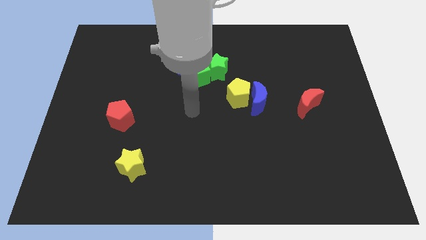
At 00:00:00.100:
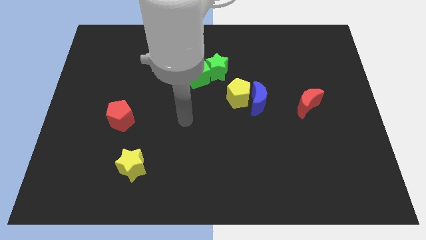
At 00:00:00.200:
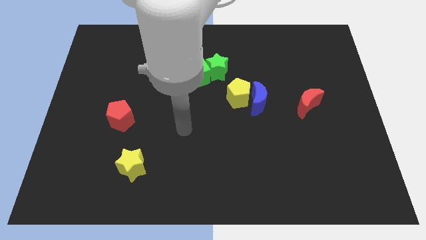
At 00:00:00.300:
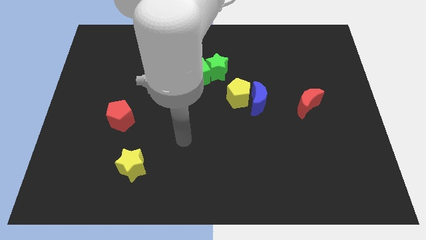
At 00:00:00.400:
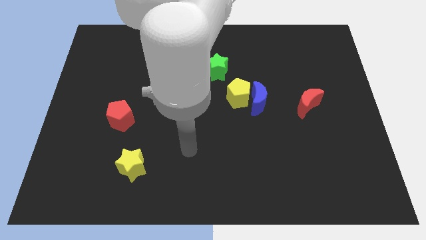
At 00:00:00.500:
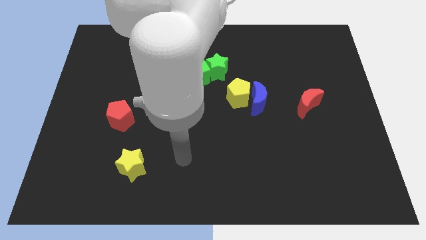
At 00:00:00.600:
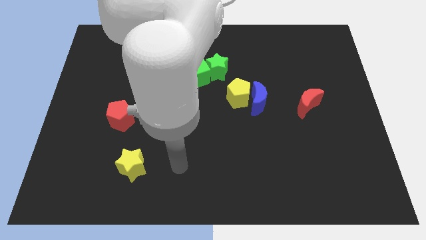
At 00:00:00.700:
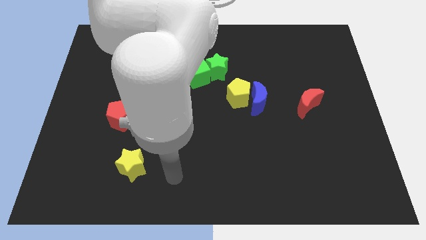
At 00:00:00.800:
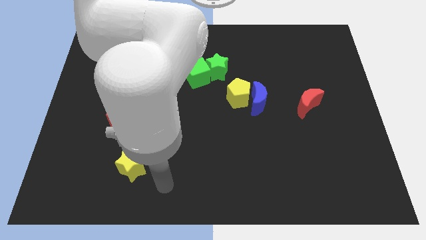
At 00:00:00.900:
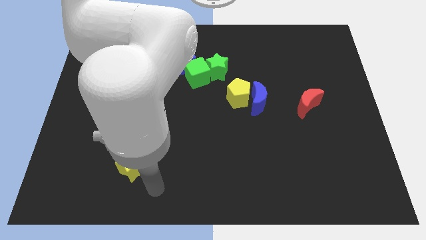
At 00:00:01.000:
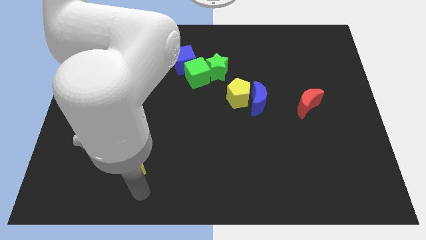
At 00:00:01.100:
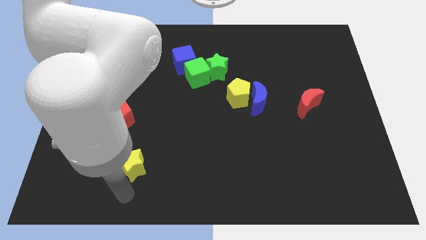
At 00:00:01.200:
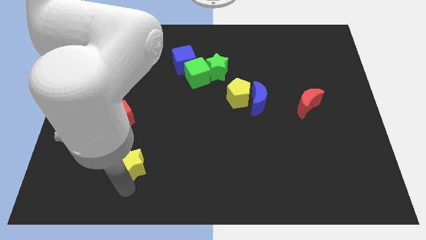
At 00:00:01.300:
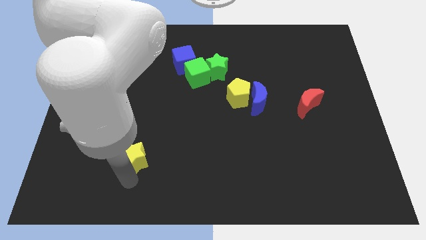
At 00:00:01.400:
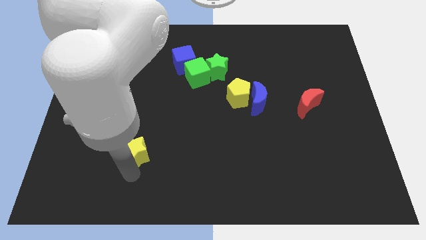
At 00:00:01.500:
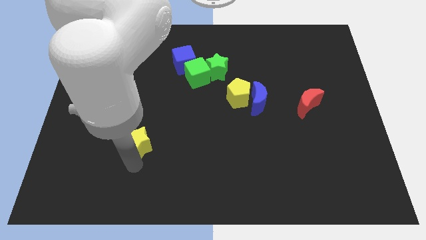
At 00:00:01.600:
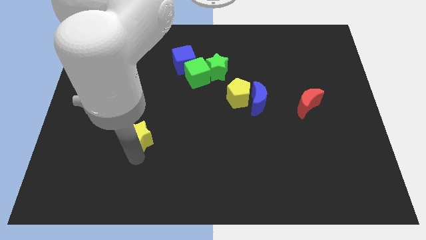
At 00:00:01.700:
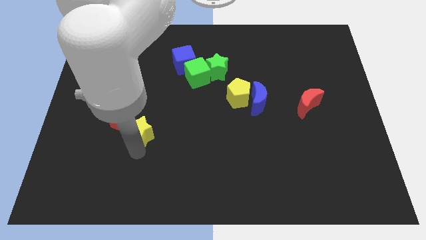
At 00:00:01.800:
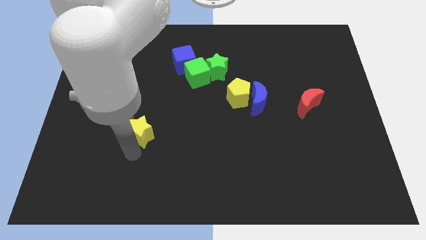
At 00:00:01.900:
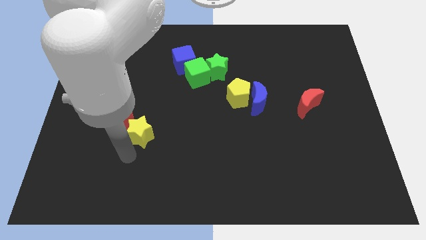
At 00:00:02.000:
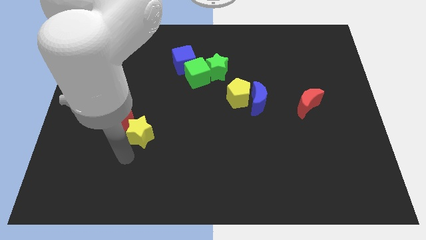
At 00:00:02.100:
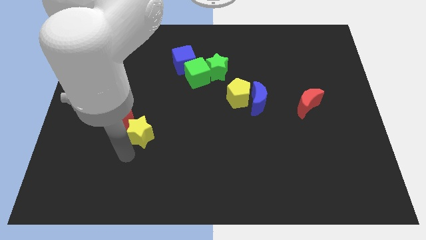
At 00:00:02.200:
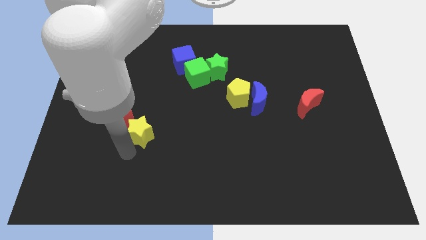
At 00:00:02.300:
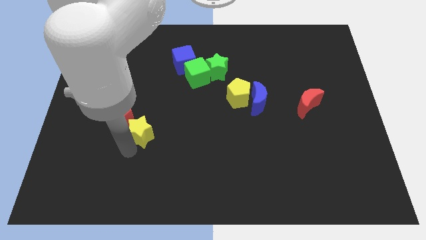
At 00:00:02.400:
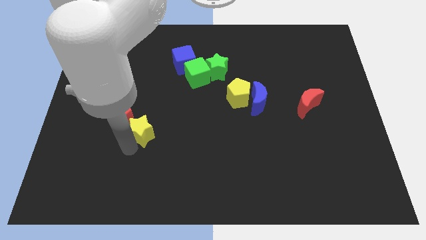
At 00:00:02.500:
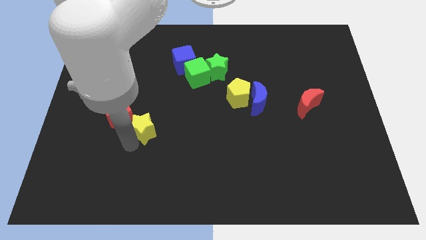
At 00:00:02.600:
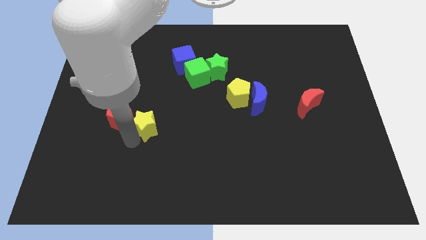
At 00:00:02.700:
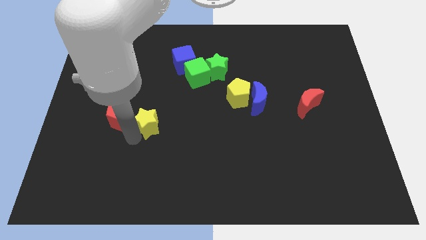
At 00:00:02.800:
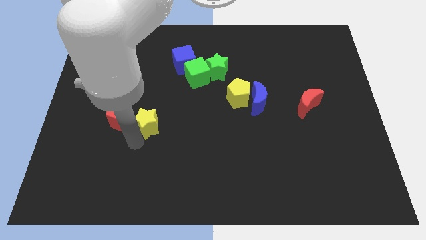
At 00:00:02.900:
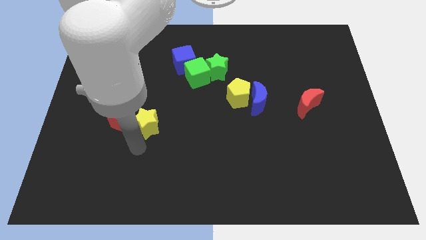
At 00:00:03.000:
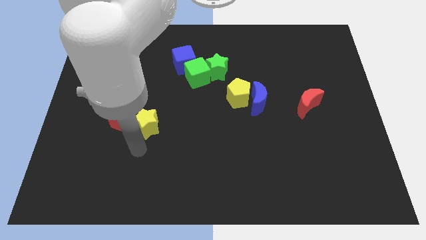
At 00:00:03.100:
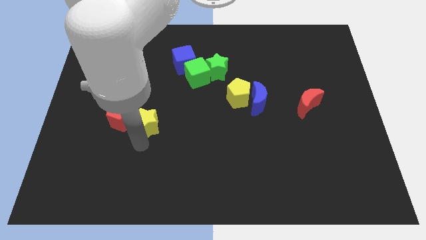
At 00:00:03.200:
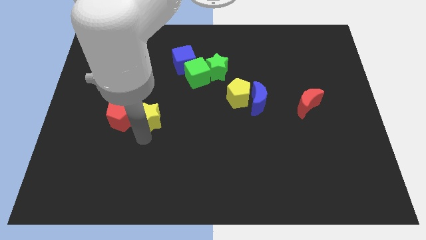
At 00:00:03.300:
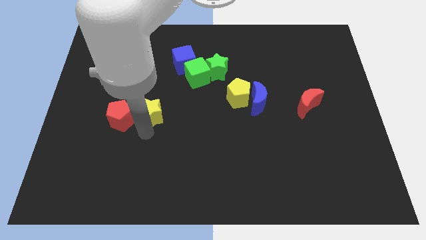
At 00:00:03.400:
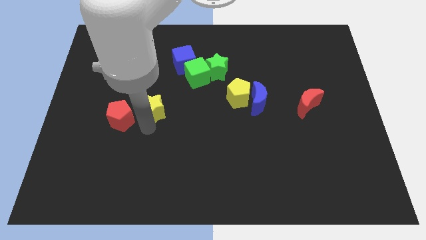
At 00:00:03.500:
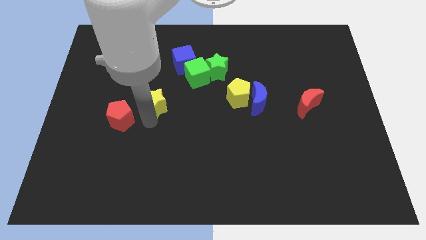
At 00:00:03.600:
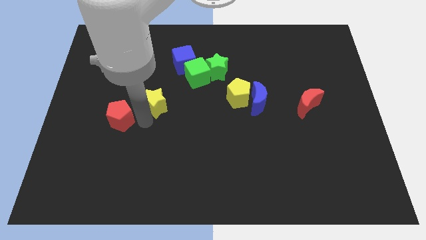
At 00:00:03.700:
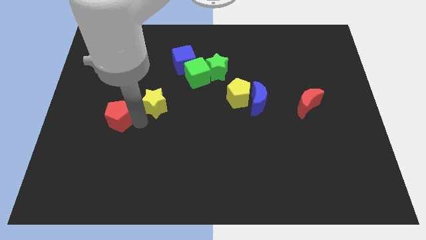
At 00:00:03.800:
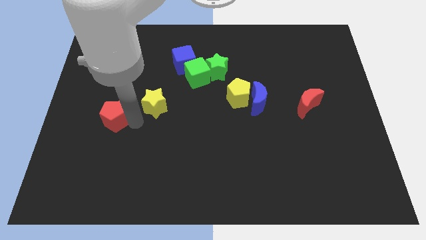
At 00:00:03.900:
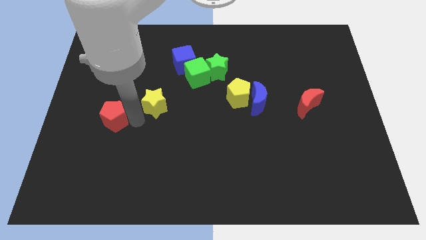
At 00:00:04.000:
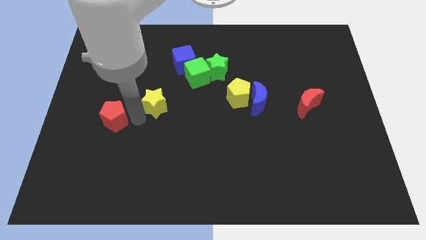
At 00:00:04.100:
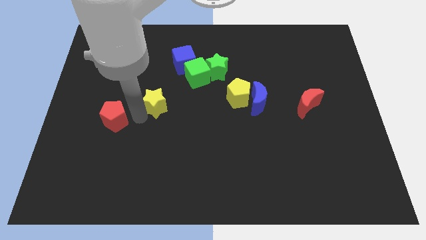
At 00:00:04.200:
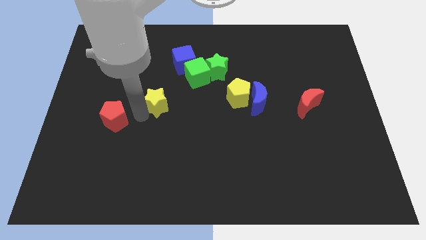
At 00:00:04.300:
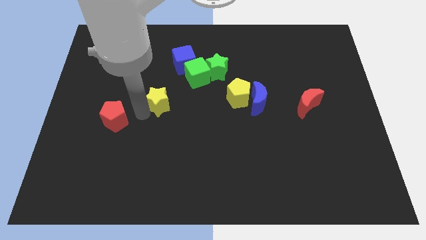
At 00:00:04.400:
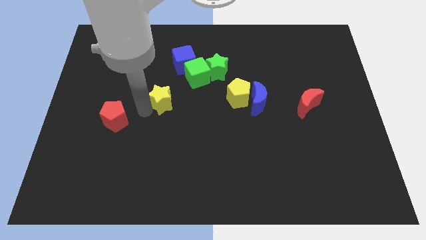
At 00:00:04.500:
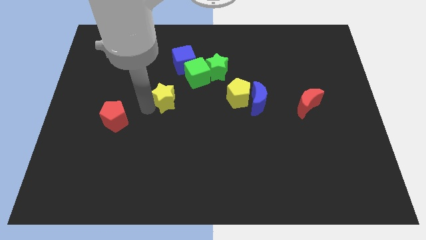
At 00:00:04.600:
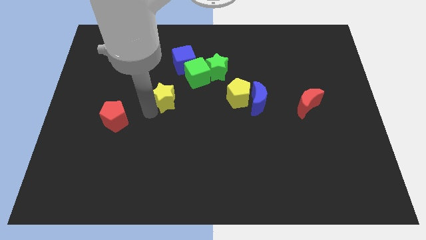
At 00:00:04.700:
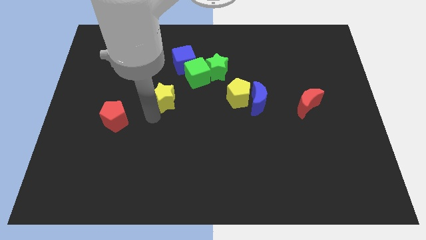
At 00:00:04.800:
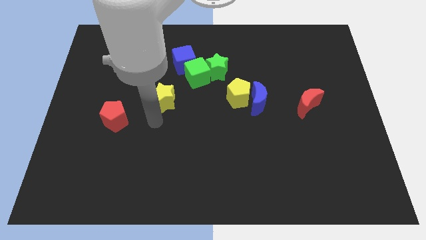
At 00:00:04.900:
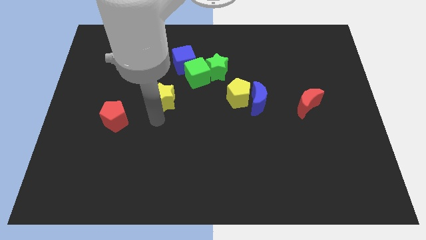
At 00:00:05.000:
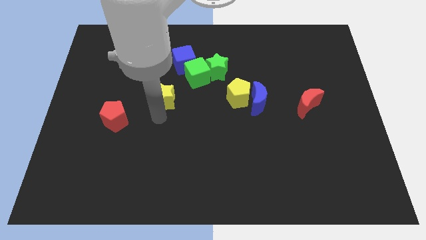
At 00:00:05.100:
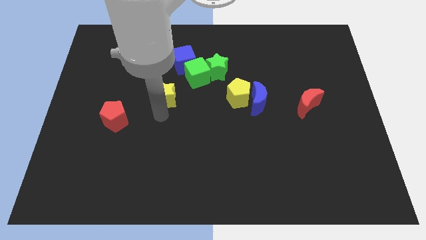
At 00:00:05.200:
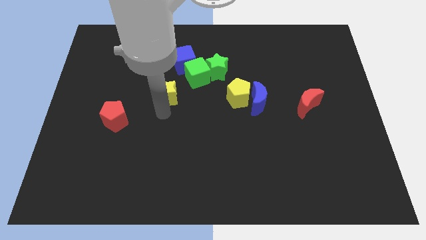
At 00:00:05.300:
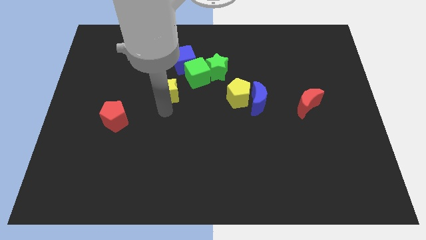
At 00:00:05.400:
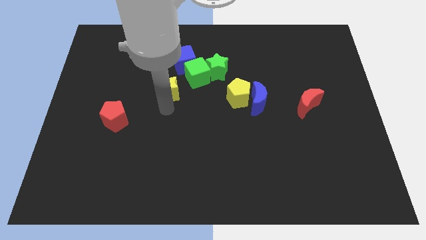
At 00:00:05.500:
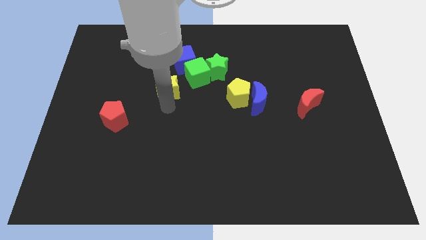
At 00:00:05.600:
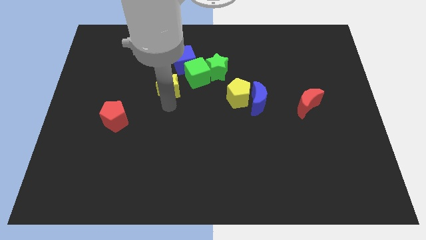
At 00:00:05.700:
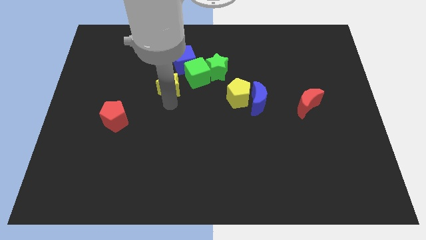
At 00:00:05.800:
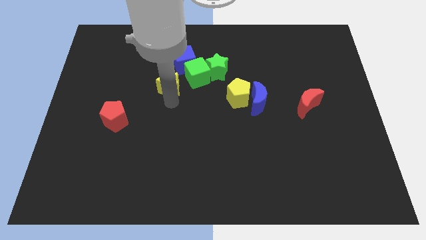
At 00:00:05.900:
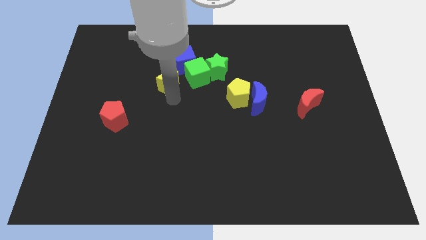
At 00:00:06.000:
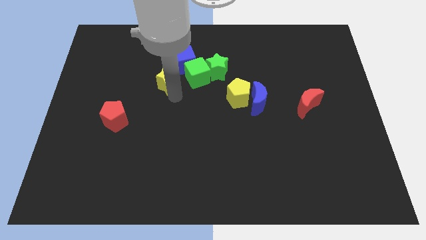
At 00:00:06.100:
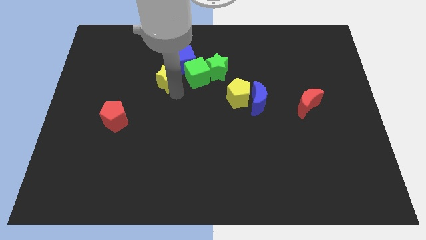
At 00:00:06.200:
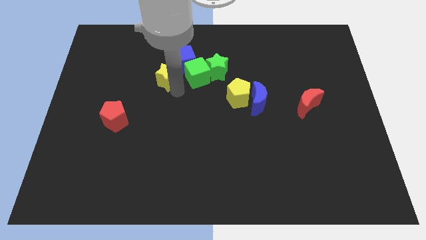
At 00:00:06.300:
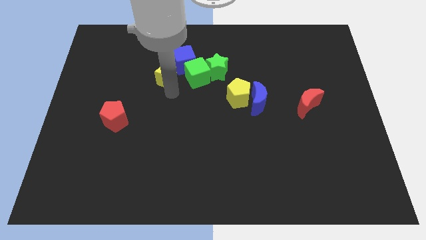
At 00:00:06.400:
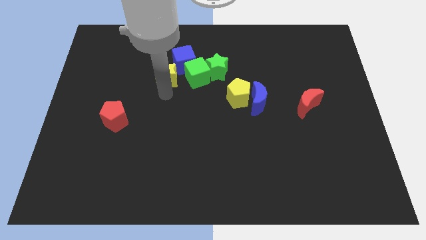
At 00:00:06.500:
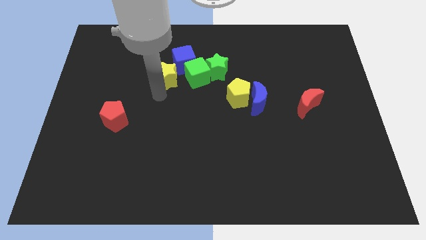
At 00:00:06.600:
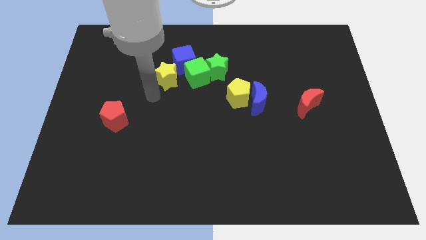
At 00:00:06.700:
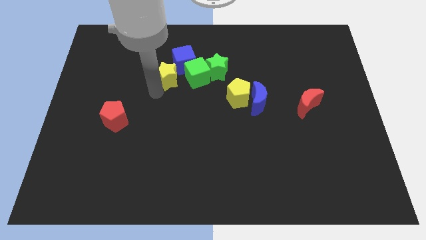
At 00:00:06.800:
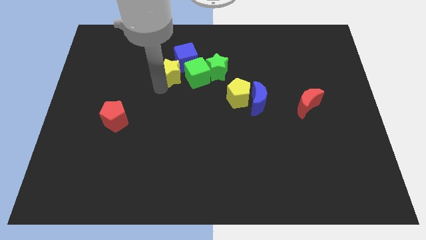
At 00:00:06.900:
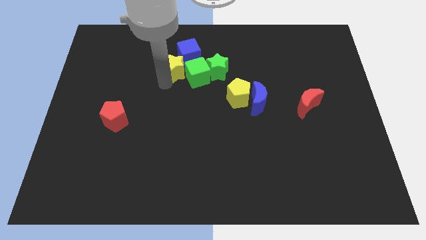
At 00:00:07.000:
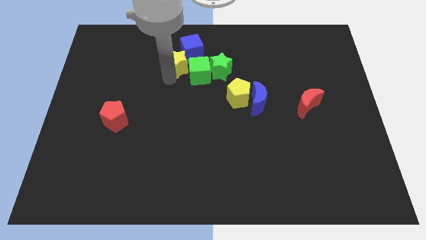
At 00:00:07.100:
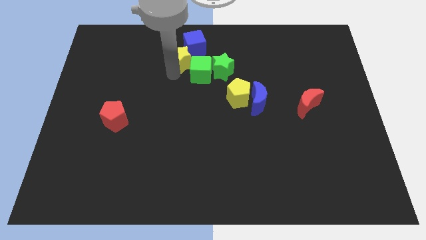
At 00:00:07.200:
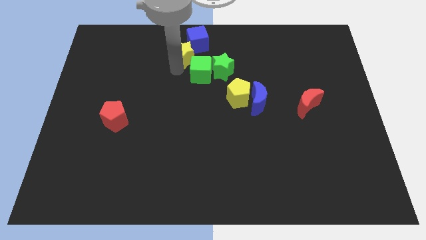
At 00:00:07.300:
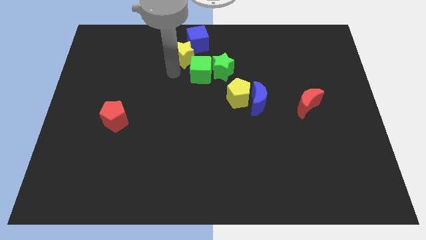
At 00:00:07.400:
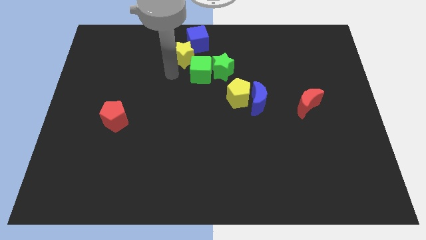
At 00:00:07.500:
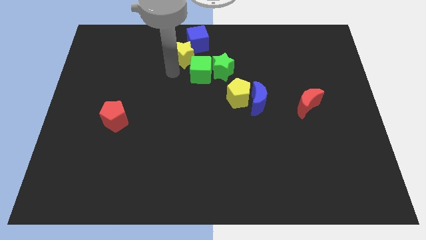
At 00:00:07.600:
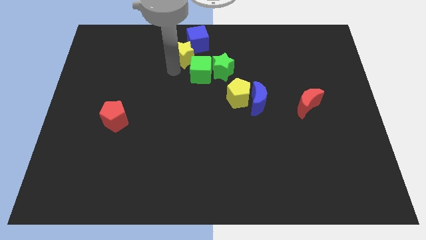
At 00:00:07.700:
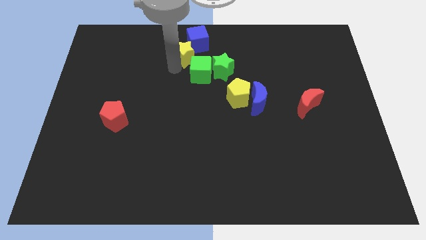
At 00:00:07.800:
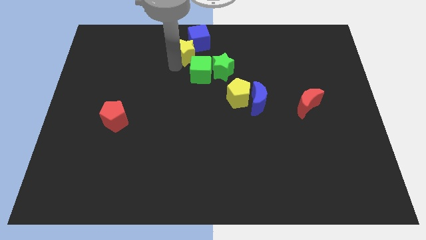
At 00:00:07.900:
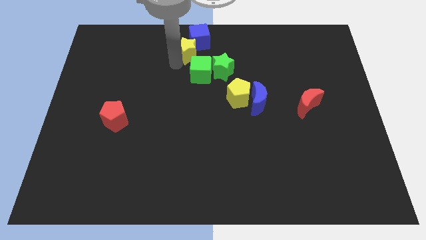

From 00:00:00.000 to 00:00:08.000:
slide the yellow star close to the blue cube
